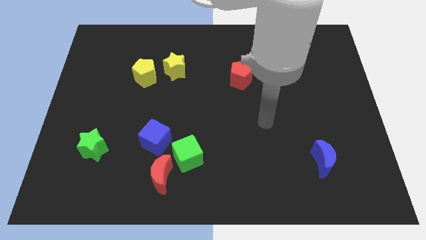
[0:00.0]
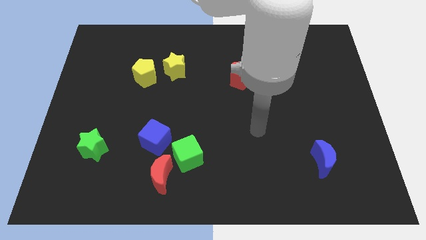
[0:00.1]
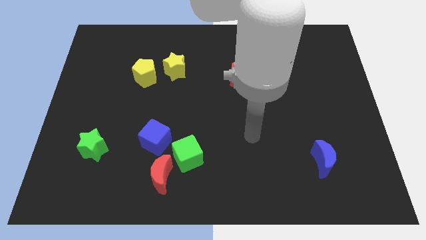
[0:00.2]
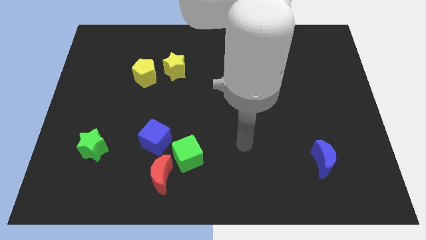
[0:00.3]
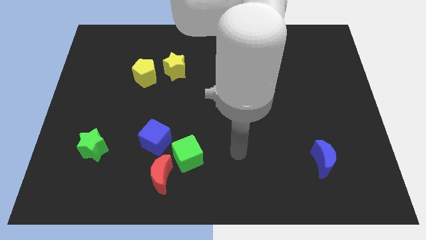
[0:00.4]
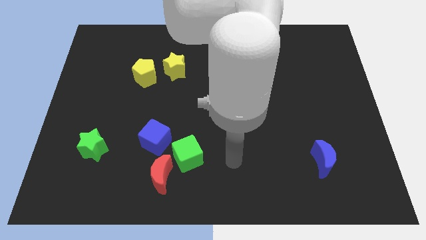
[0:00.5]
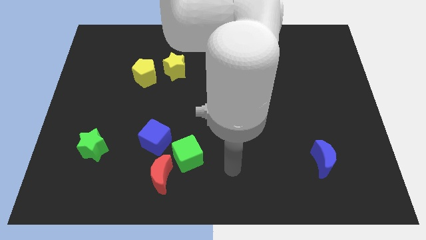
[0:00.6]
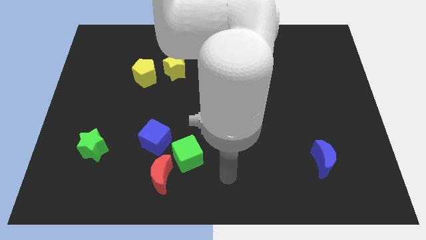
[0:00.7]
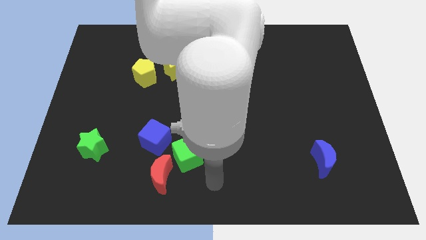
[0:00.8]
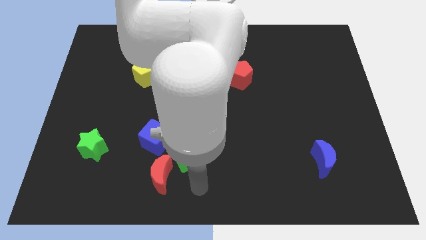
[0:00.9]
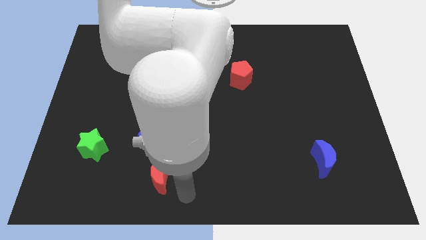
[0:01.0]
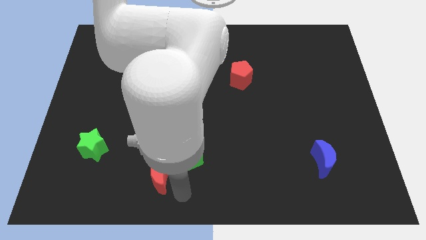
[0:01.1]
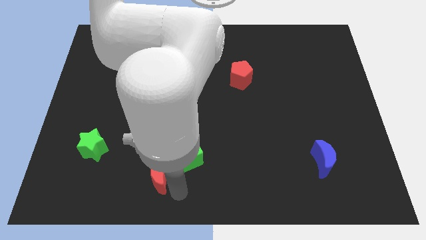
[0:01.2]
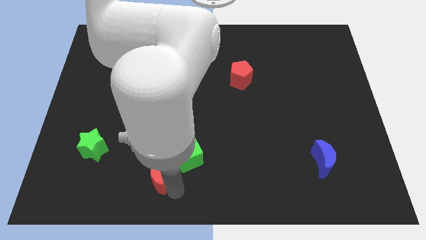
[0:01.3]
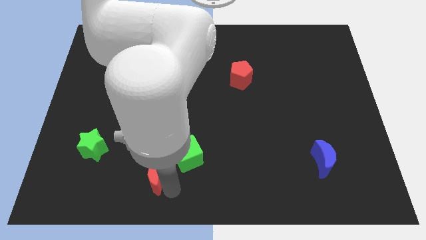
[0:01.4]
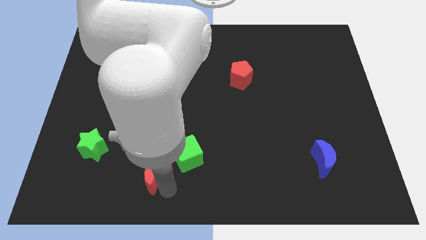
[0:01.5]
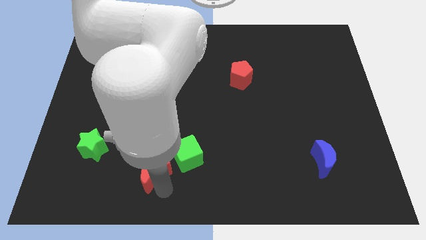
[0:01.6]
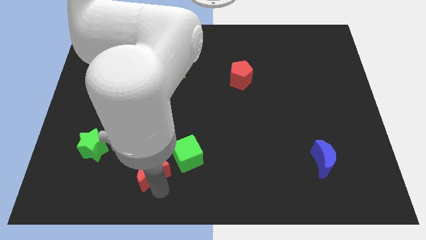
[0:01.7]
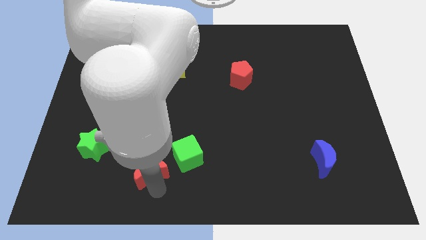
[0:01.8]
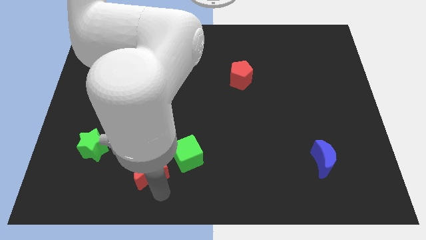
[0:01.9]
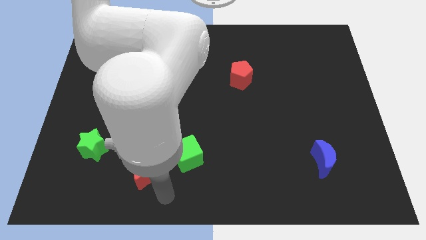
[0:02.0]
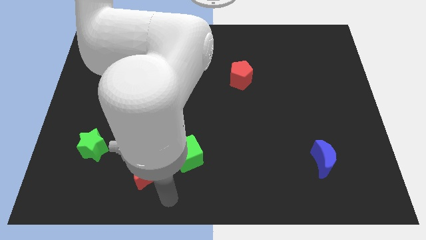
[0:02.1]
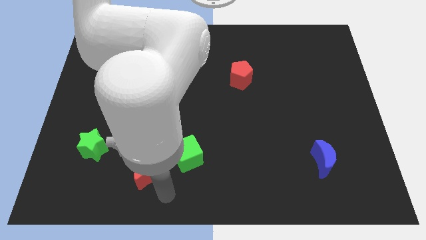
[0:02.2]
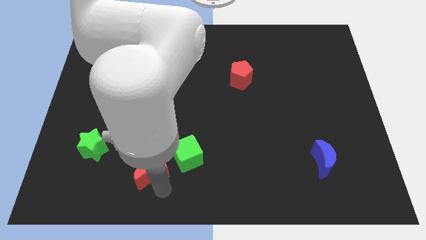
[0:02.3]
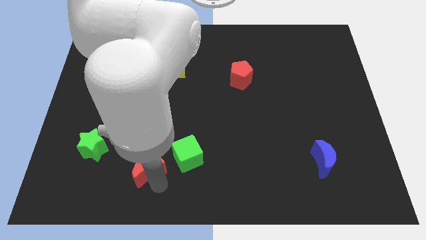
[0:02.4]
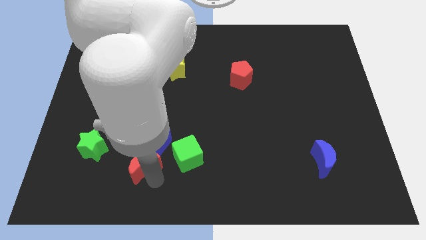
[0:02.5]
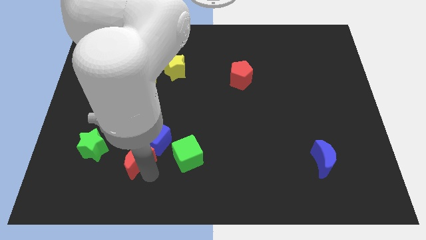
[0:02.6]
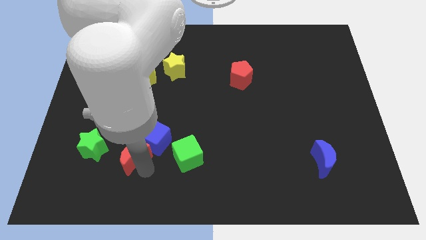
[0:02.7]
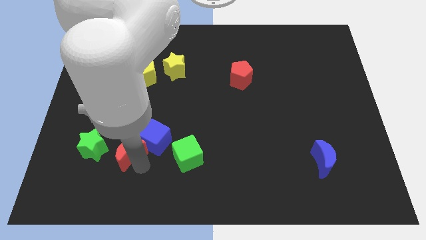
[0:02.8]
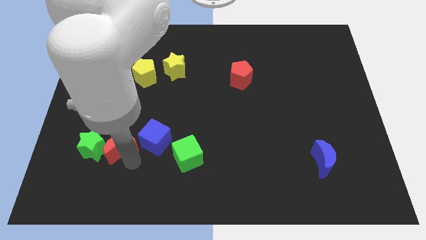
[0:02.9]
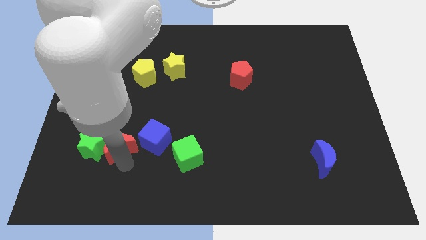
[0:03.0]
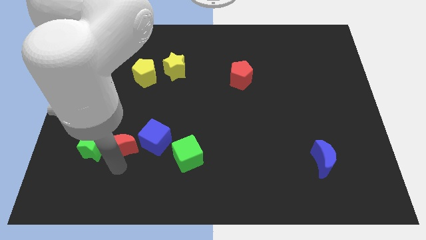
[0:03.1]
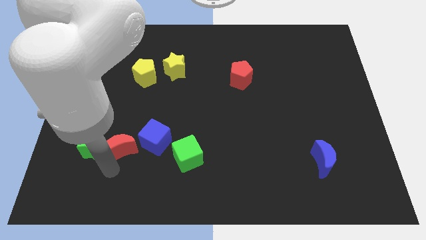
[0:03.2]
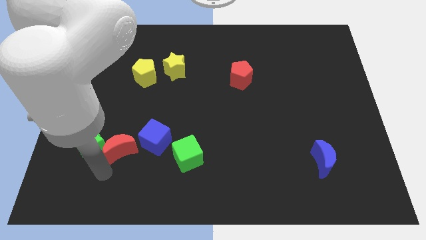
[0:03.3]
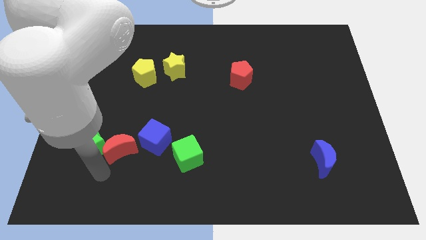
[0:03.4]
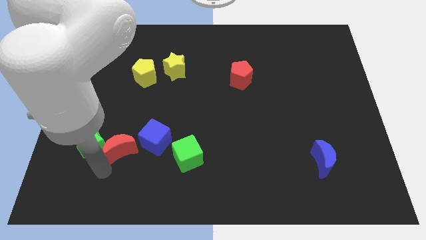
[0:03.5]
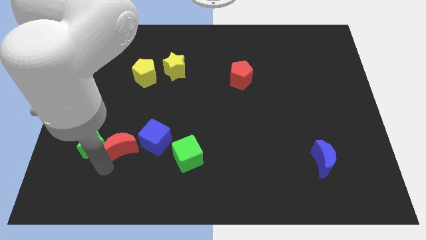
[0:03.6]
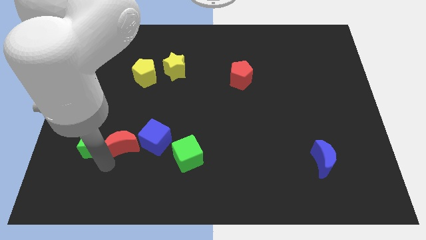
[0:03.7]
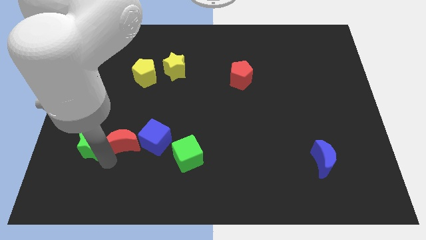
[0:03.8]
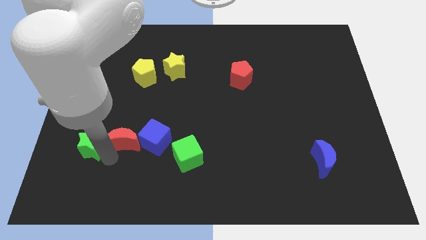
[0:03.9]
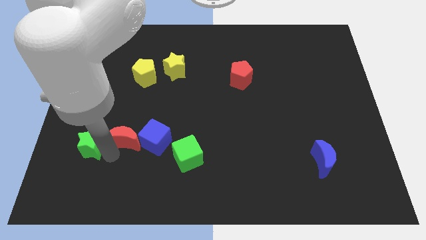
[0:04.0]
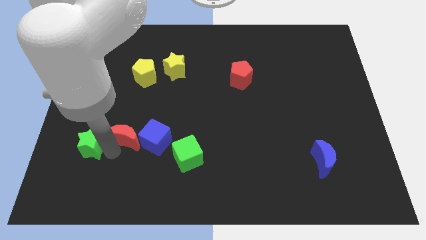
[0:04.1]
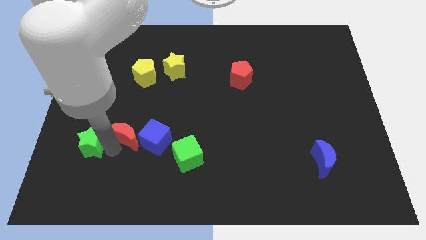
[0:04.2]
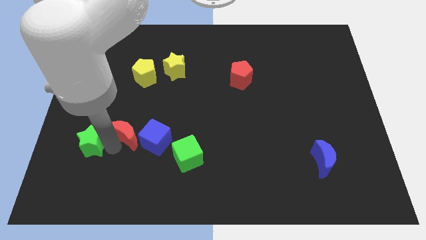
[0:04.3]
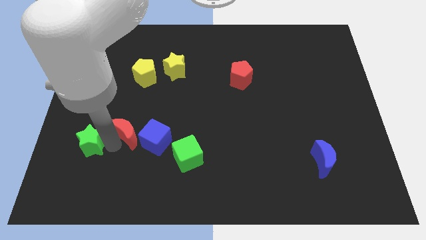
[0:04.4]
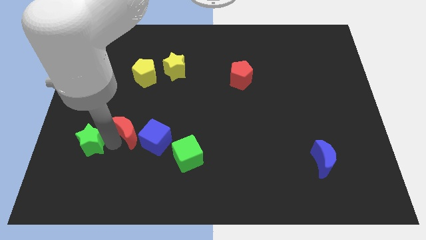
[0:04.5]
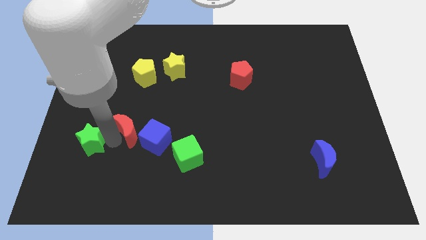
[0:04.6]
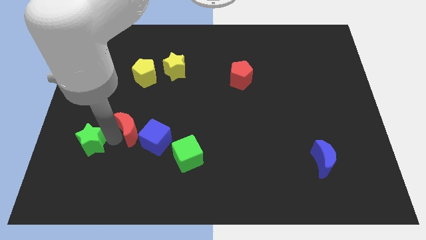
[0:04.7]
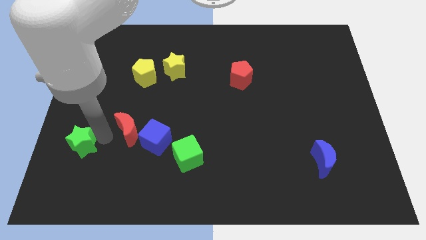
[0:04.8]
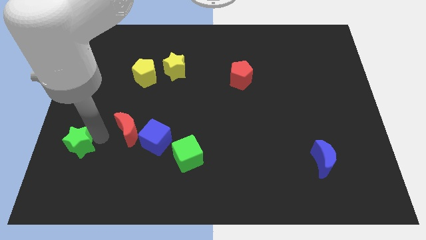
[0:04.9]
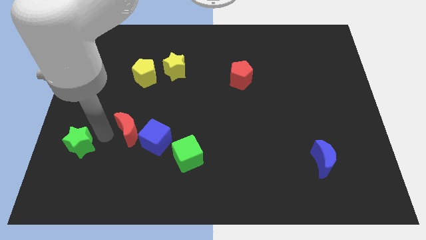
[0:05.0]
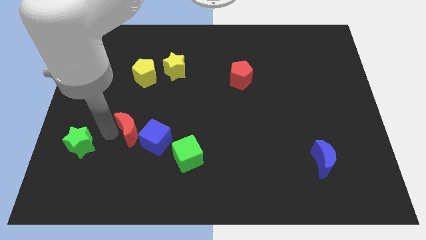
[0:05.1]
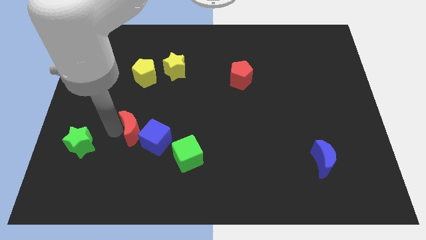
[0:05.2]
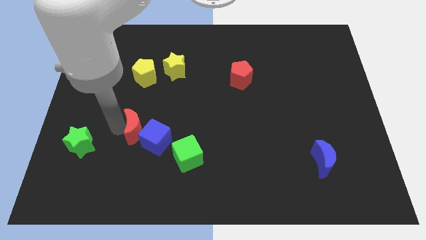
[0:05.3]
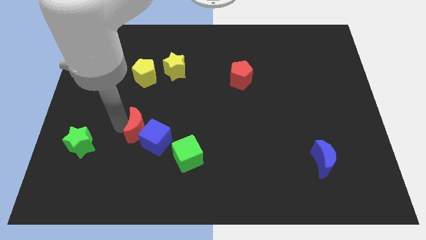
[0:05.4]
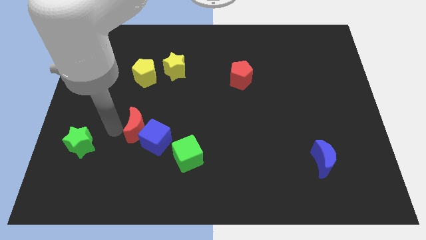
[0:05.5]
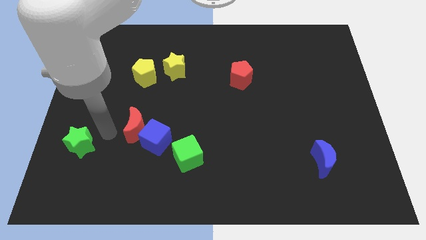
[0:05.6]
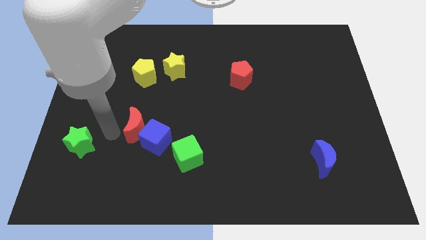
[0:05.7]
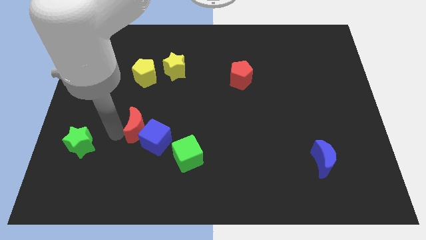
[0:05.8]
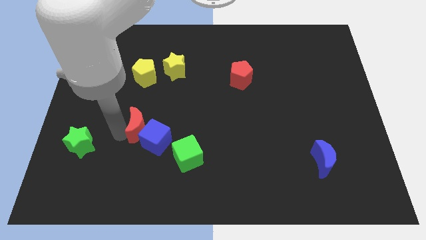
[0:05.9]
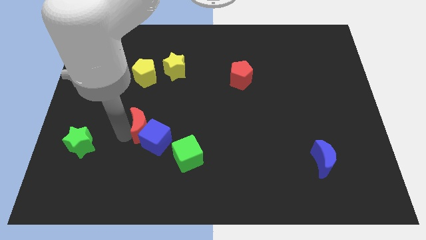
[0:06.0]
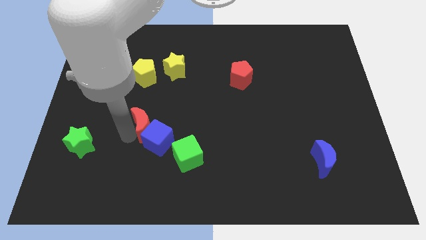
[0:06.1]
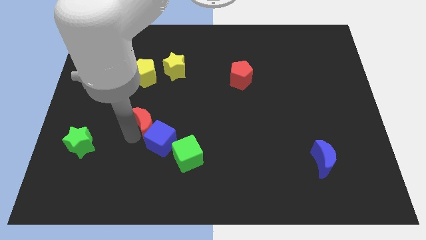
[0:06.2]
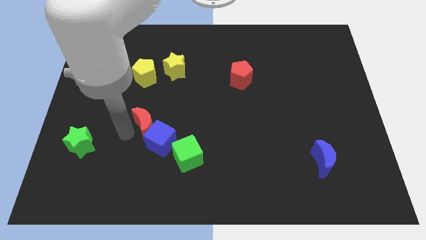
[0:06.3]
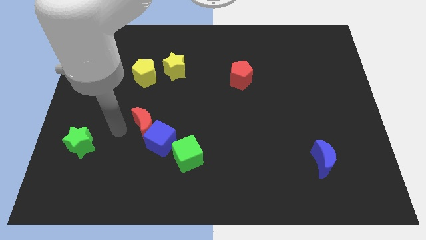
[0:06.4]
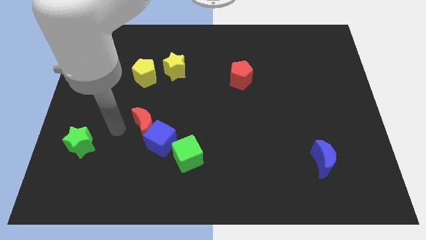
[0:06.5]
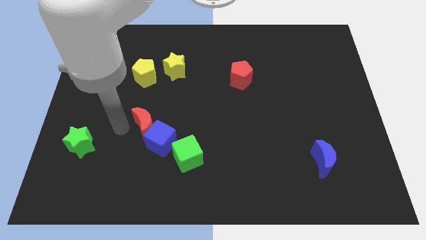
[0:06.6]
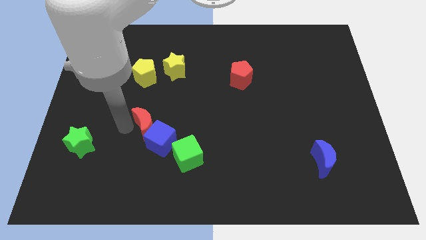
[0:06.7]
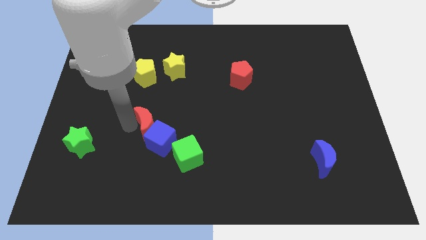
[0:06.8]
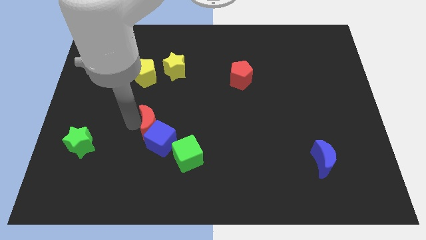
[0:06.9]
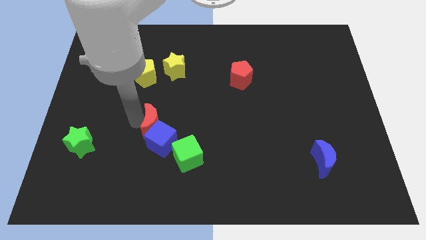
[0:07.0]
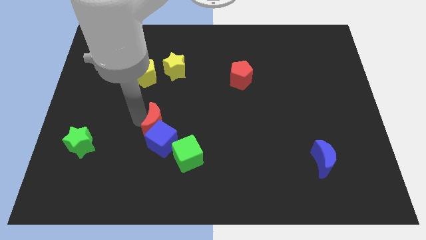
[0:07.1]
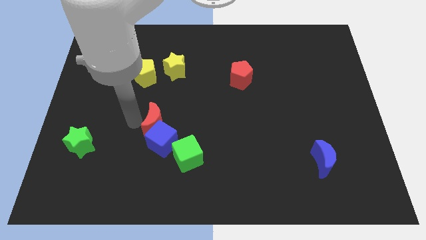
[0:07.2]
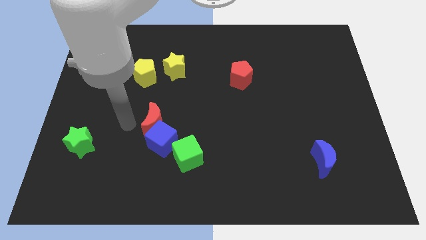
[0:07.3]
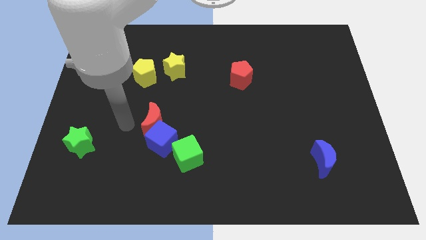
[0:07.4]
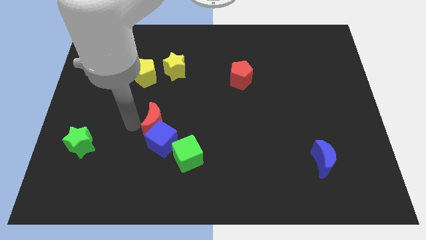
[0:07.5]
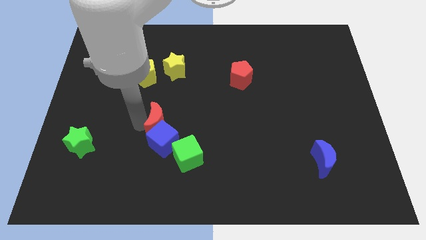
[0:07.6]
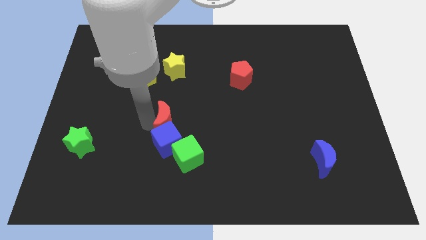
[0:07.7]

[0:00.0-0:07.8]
move the red moon to the top right side of the blue cube
